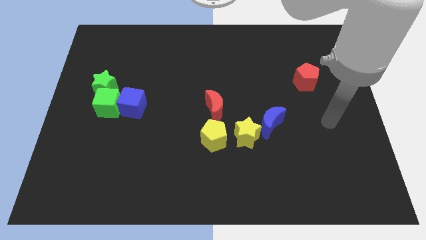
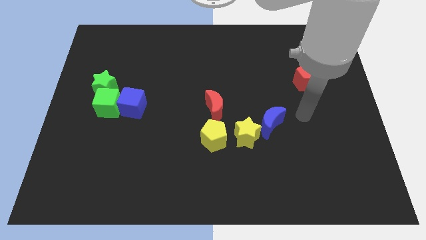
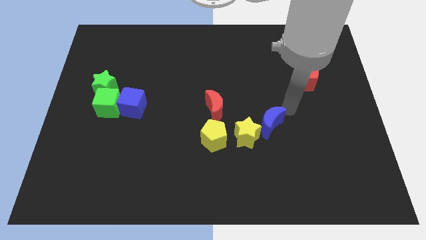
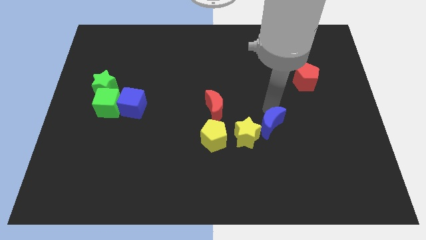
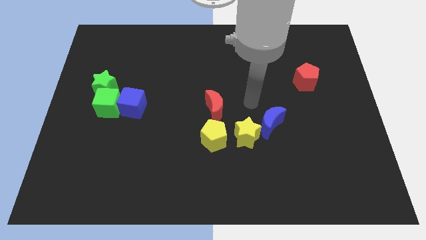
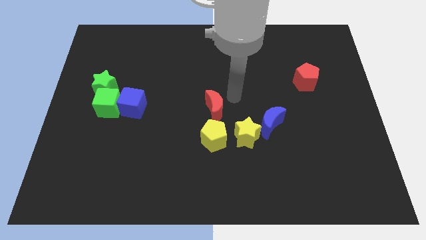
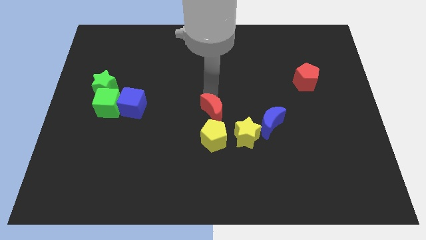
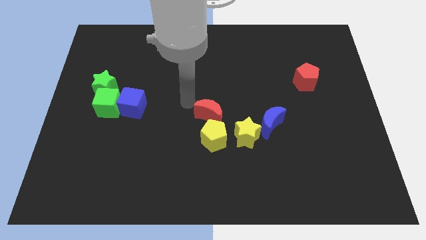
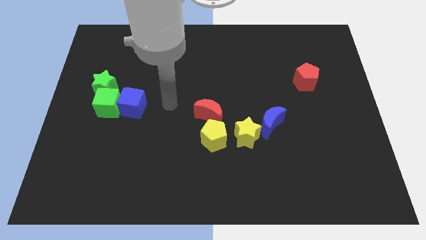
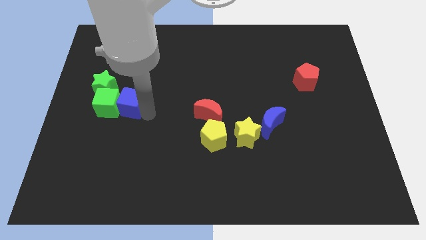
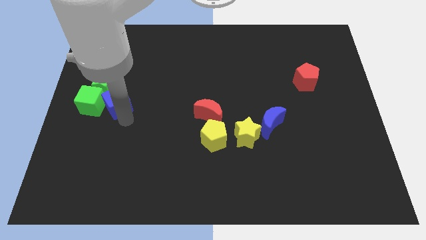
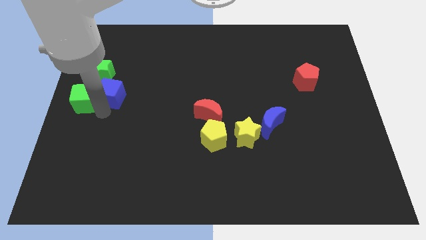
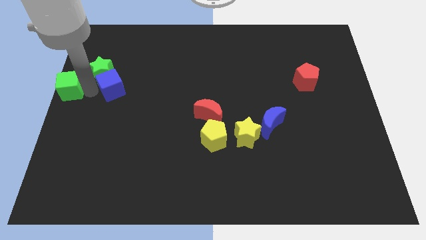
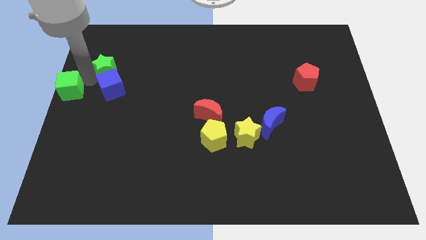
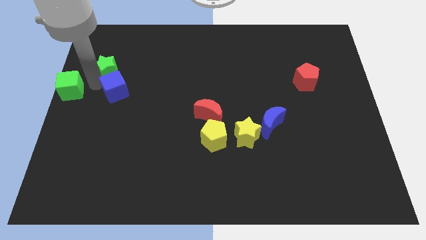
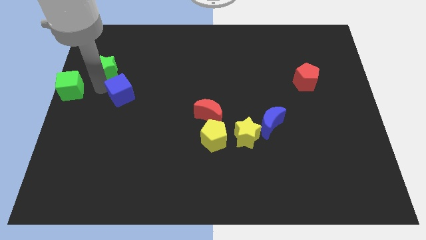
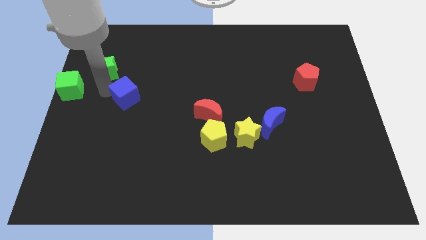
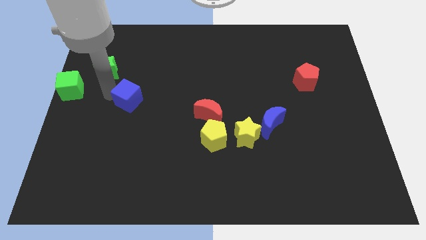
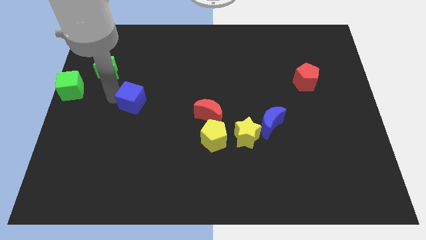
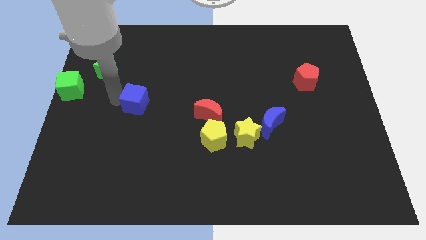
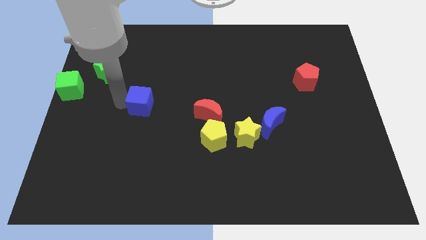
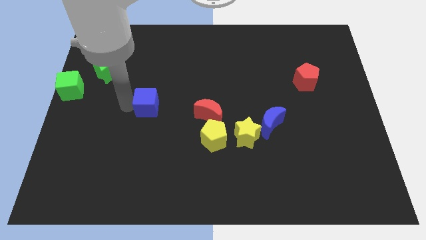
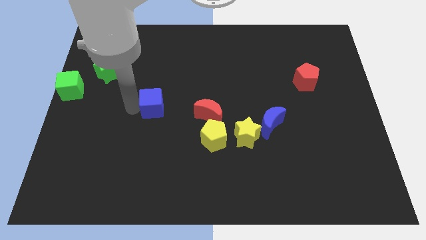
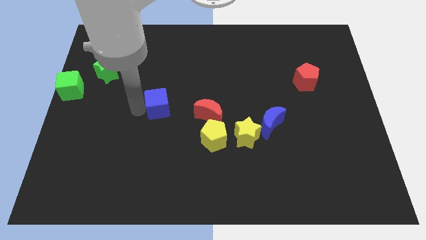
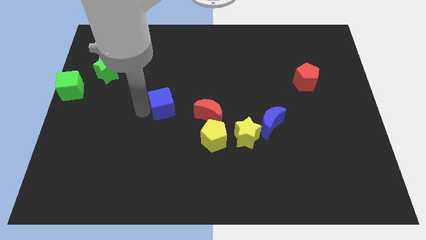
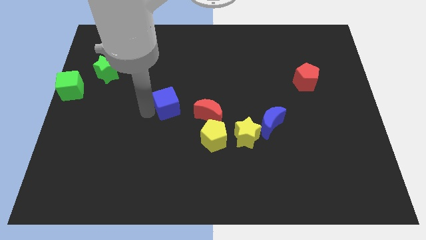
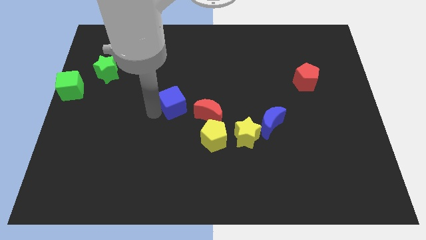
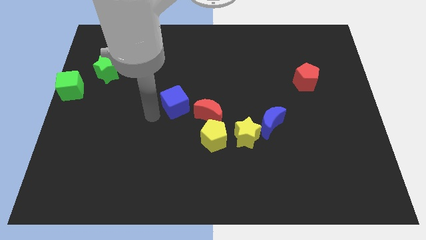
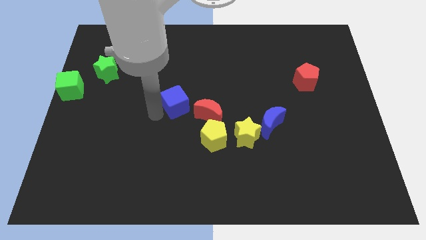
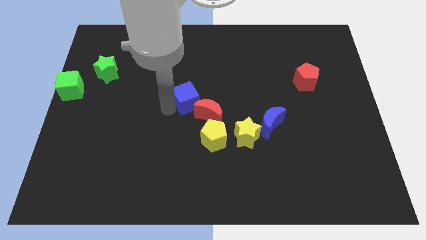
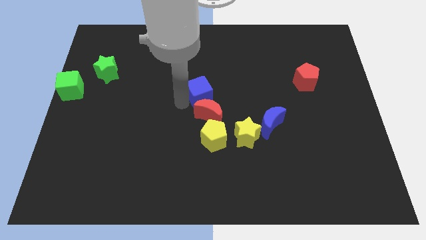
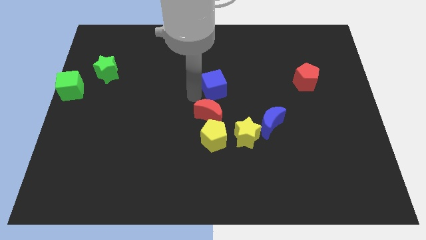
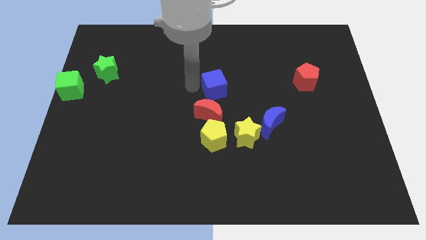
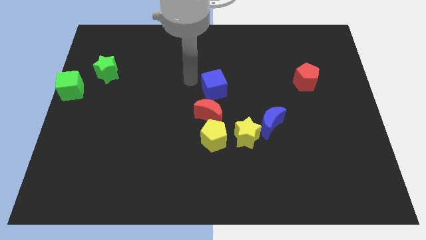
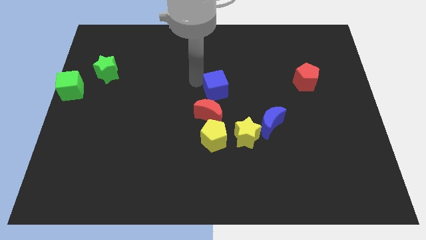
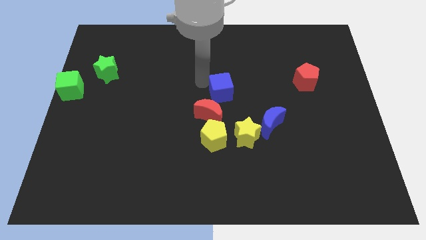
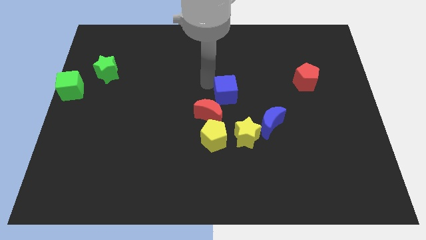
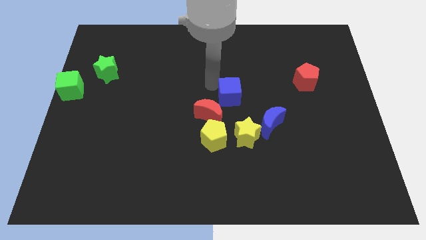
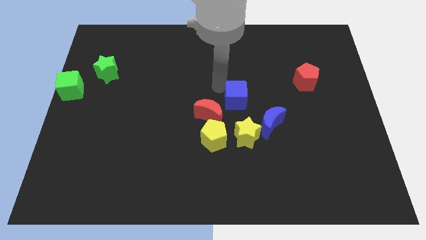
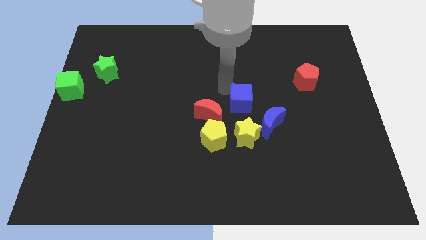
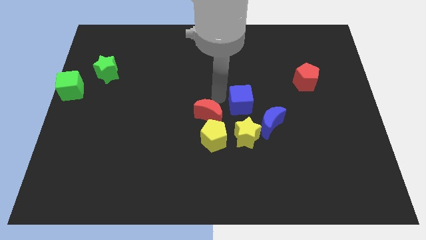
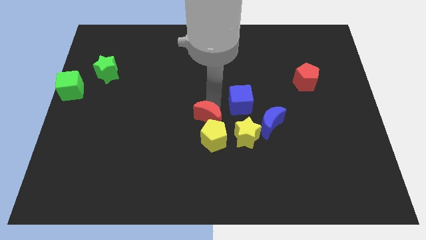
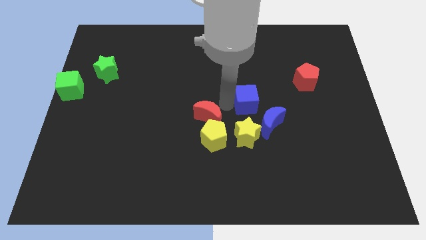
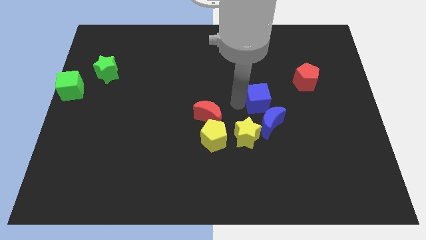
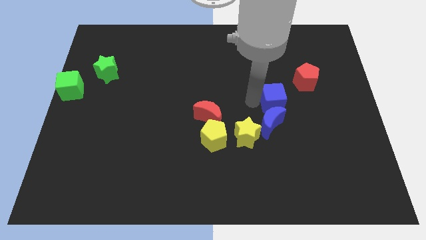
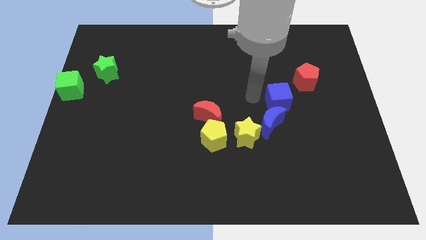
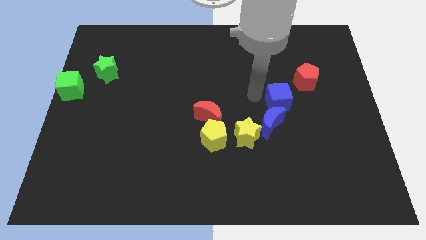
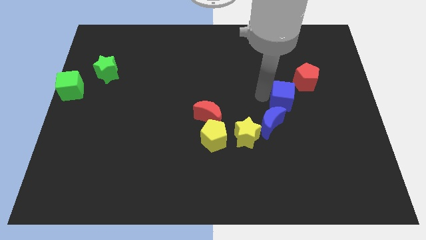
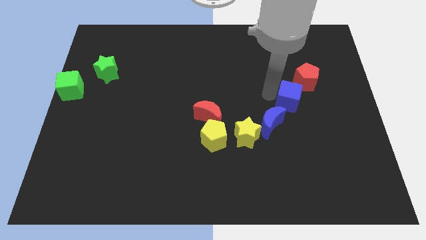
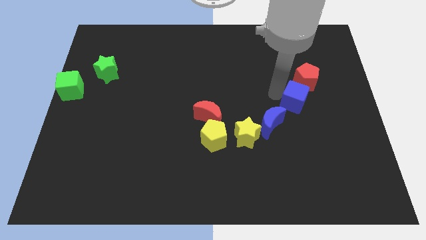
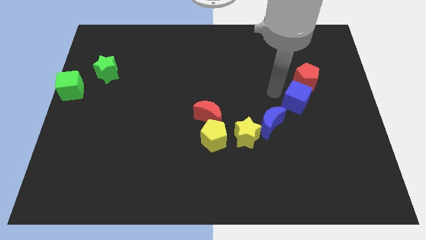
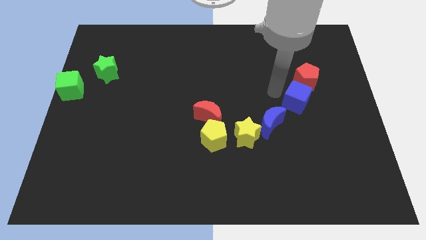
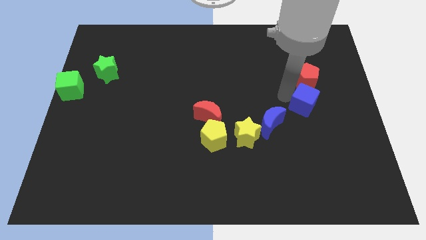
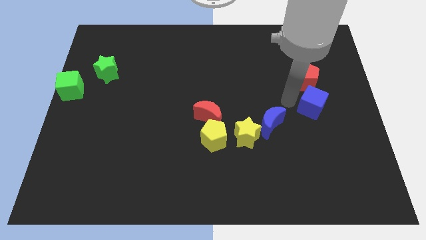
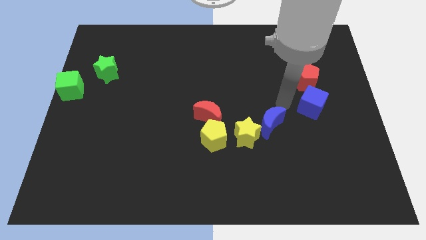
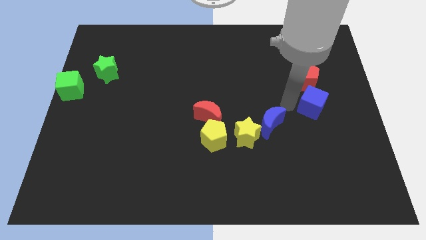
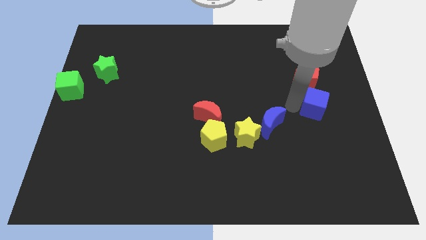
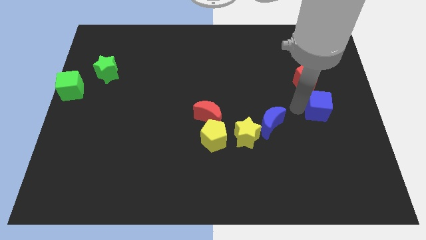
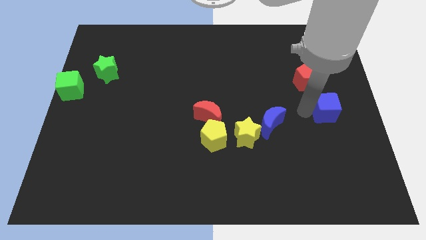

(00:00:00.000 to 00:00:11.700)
move the blue cube to the right side of the board

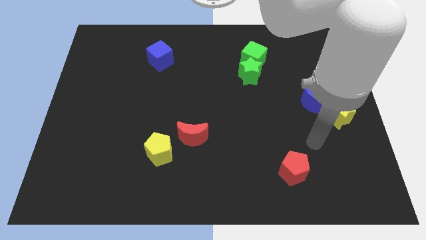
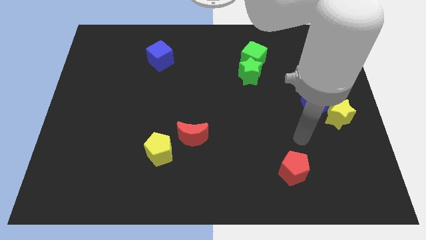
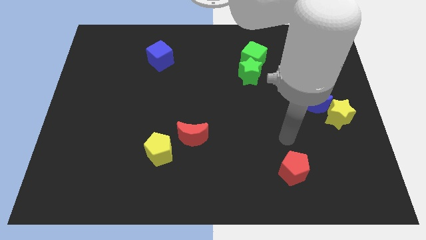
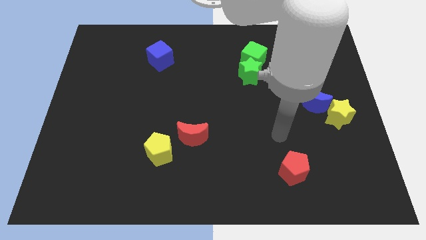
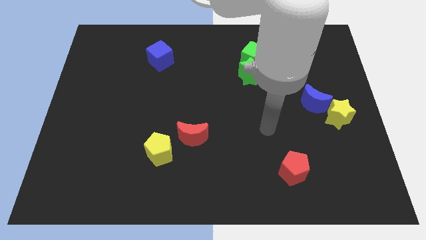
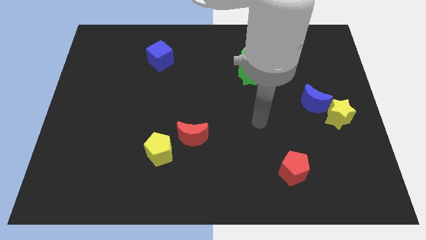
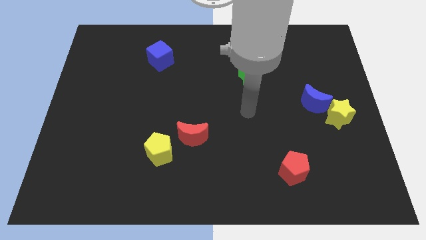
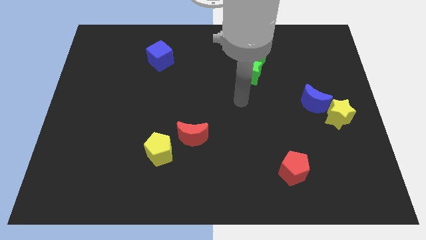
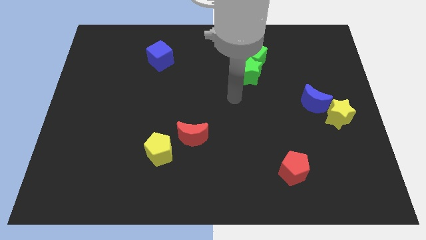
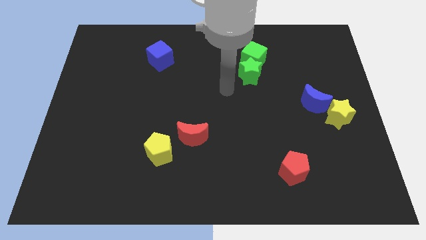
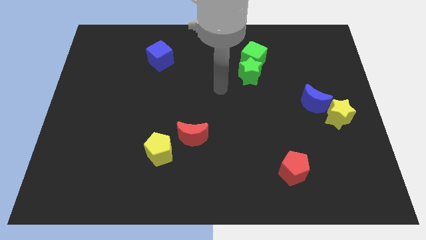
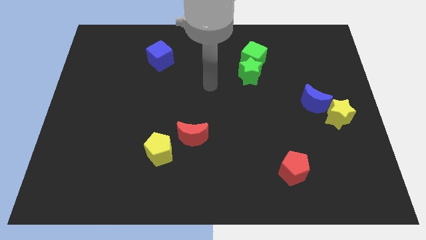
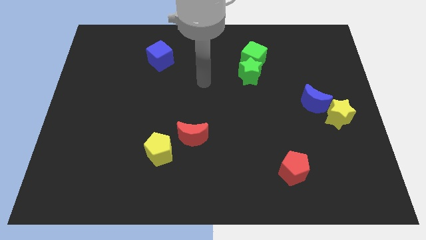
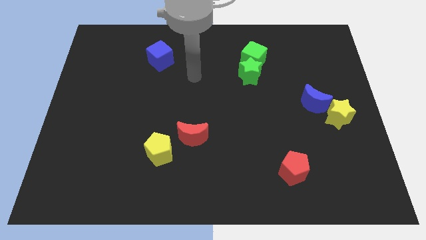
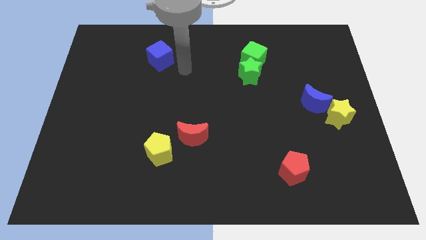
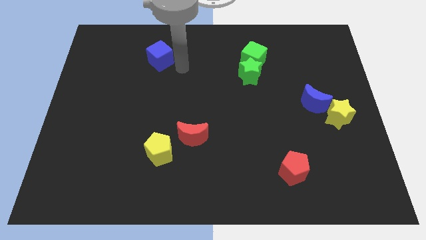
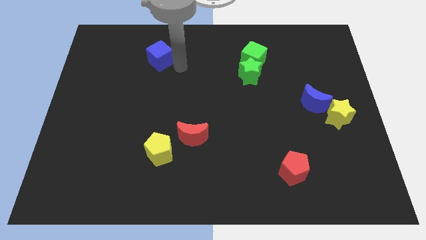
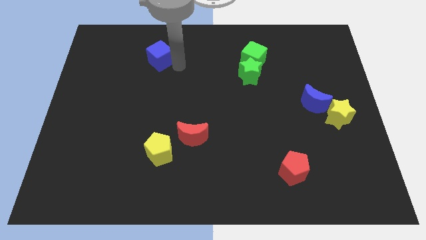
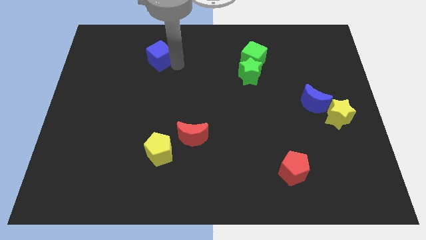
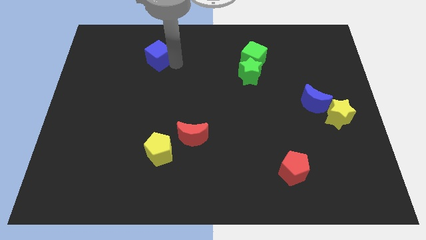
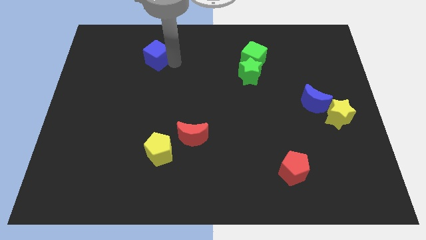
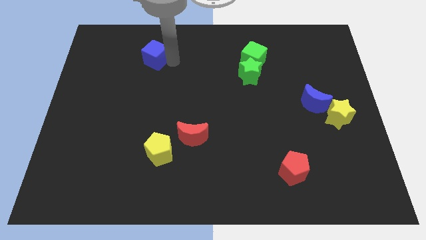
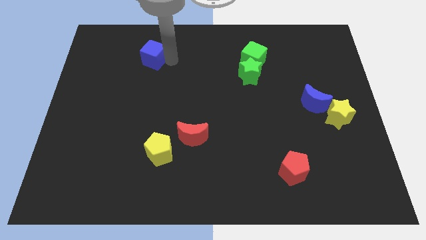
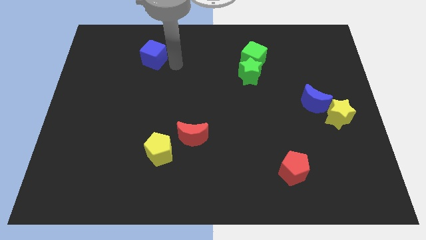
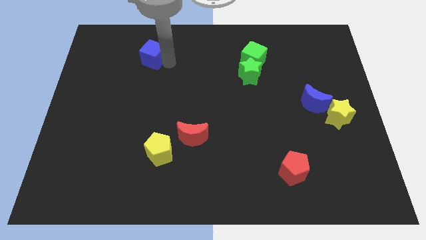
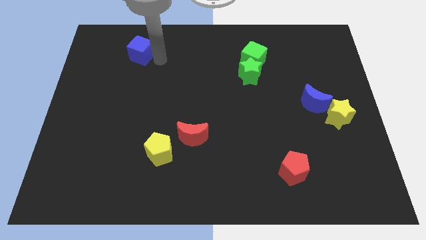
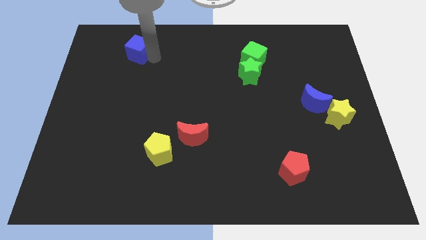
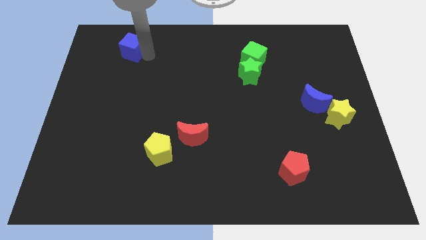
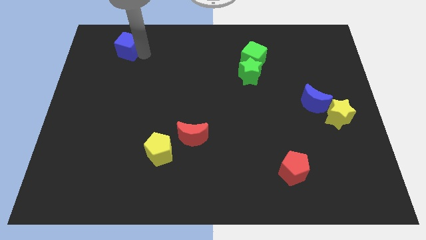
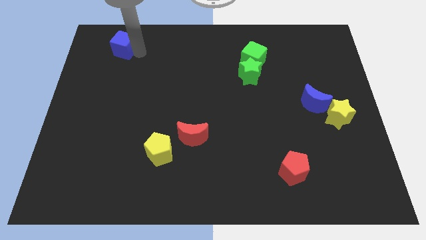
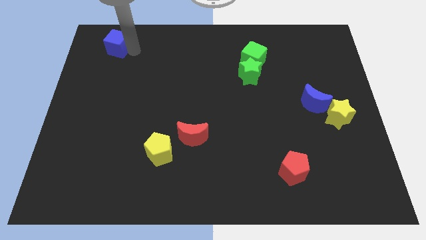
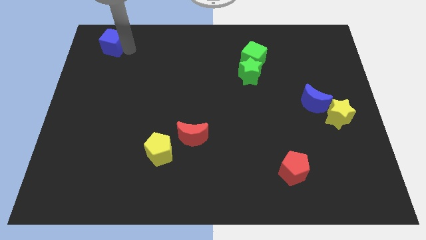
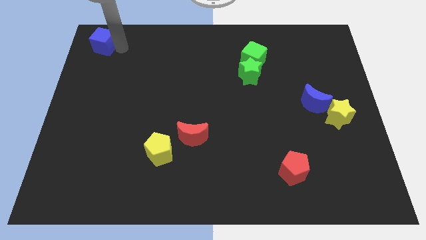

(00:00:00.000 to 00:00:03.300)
push the blue cube to the top left corner
